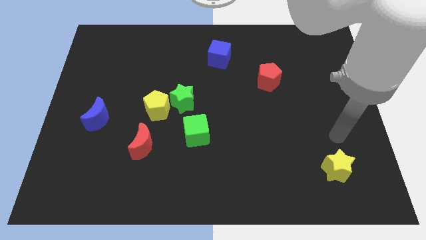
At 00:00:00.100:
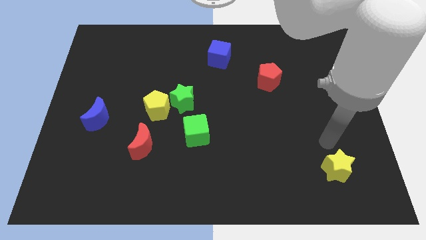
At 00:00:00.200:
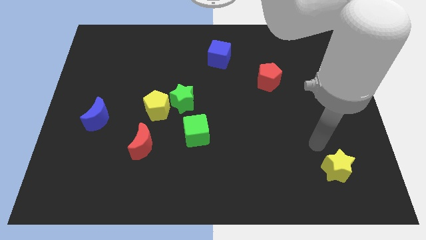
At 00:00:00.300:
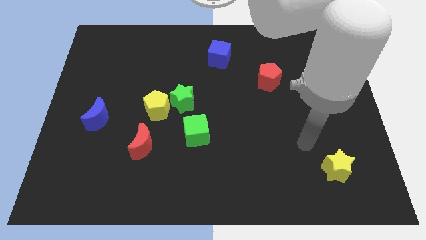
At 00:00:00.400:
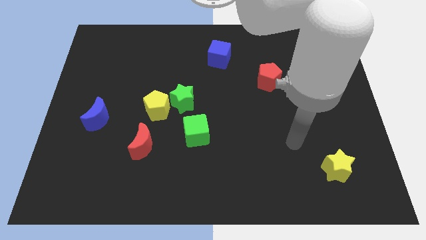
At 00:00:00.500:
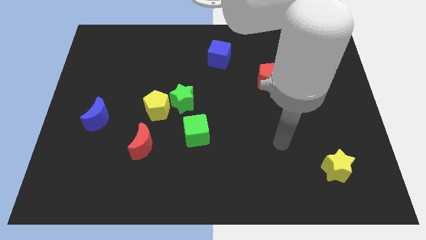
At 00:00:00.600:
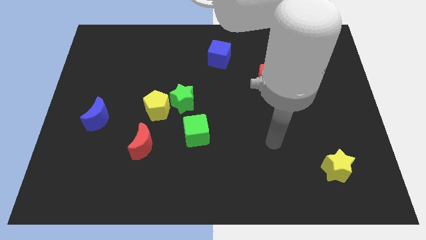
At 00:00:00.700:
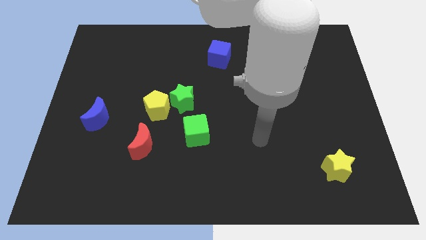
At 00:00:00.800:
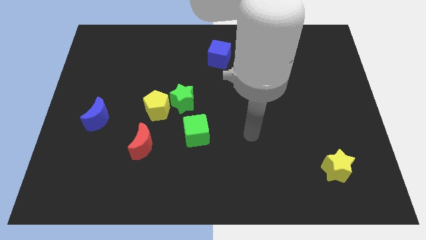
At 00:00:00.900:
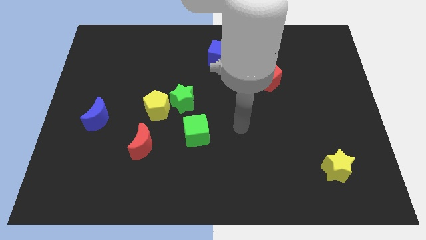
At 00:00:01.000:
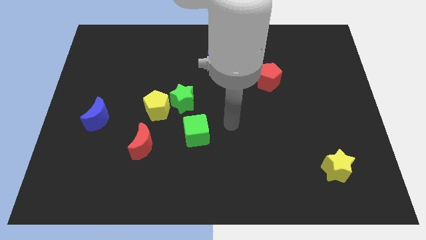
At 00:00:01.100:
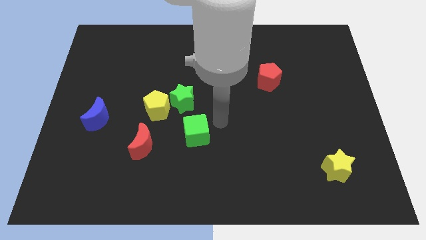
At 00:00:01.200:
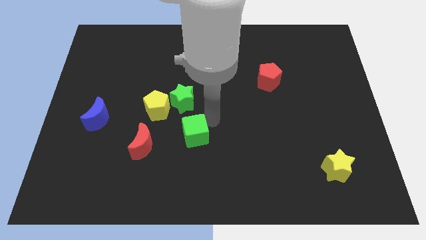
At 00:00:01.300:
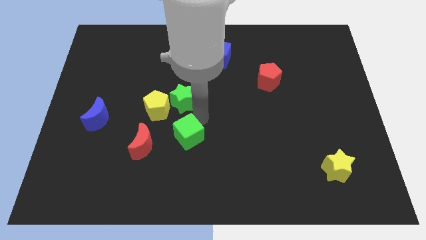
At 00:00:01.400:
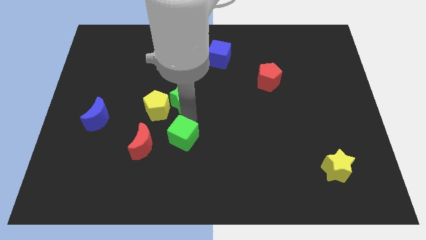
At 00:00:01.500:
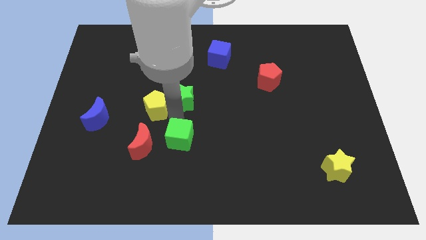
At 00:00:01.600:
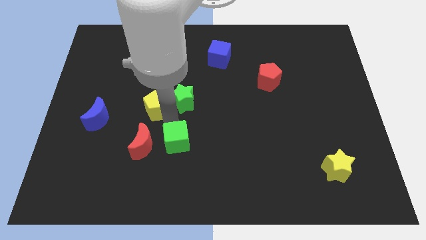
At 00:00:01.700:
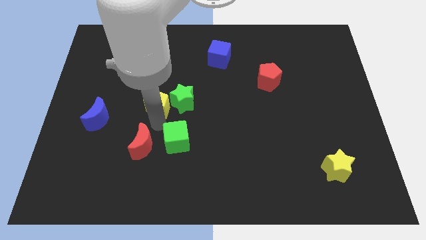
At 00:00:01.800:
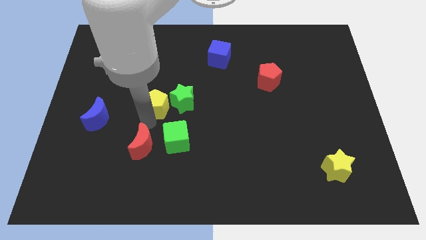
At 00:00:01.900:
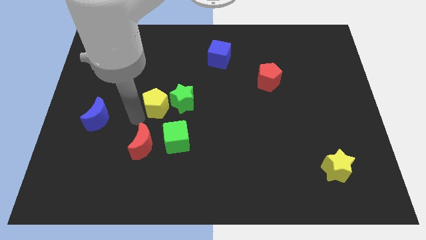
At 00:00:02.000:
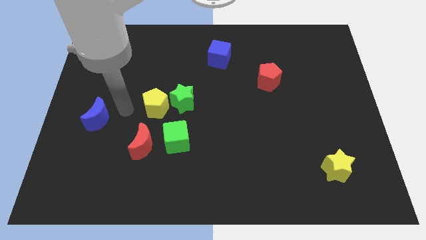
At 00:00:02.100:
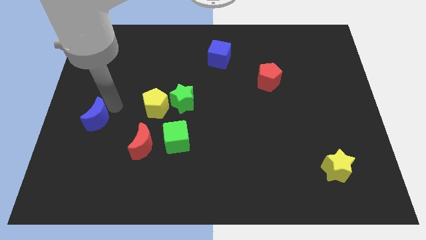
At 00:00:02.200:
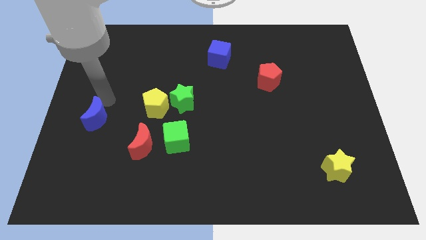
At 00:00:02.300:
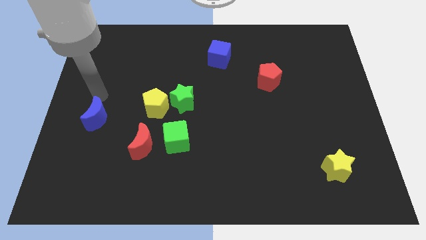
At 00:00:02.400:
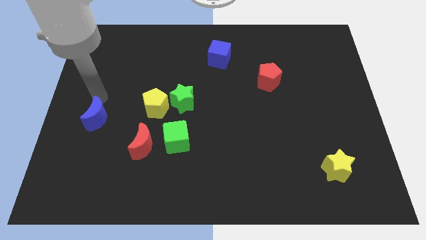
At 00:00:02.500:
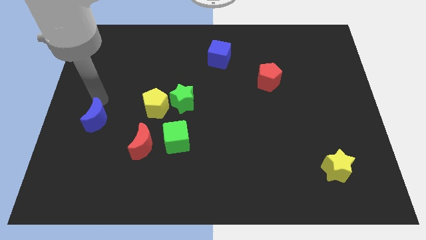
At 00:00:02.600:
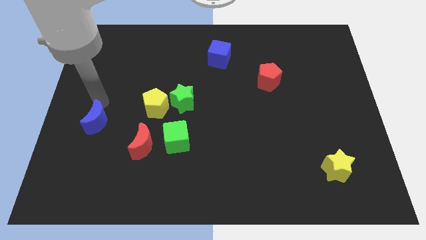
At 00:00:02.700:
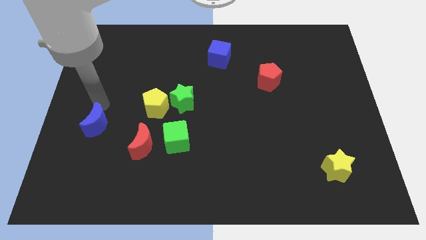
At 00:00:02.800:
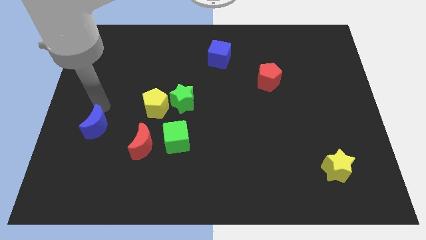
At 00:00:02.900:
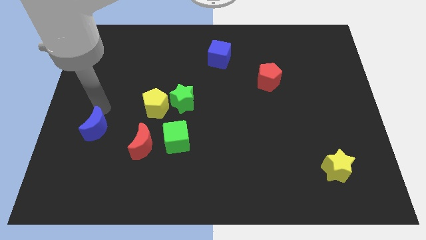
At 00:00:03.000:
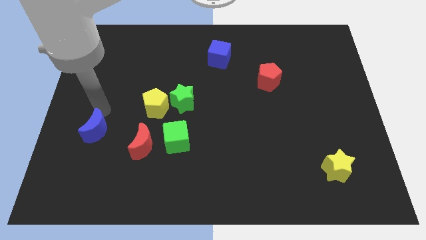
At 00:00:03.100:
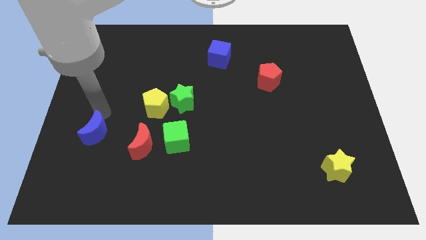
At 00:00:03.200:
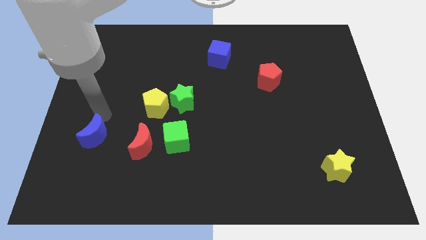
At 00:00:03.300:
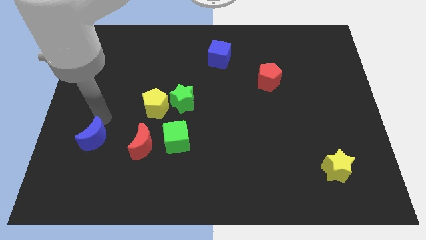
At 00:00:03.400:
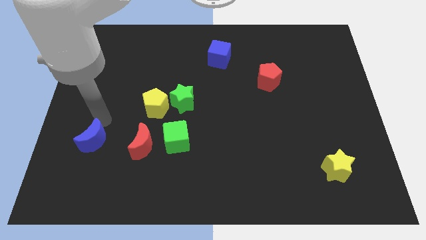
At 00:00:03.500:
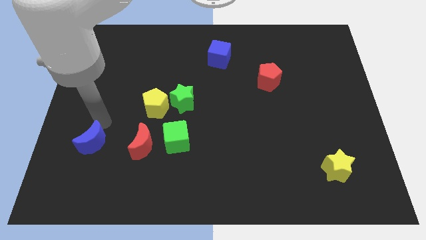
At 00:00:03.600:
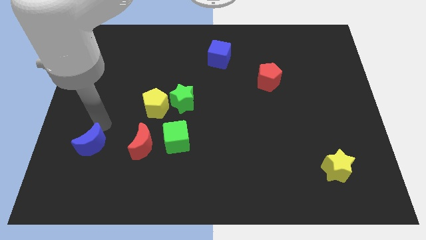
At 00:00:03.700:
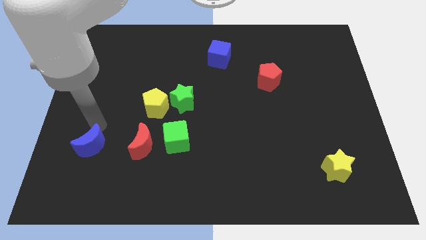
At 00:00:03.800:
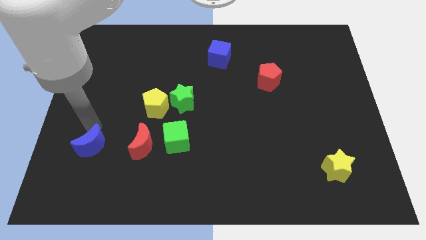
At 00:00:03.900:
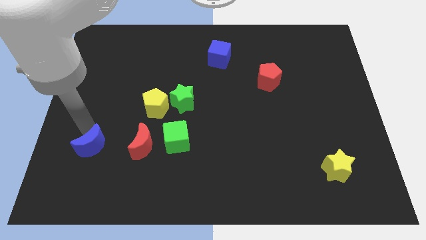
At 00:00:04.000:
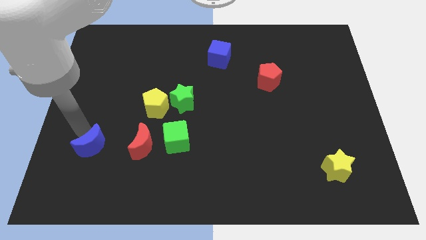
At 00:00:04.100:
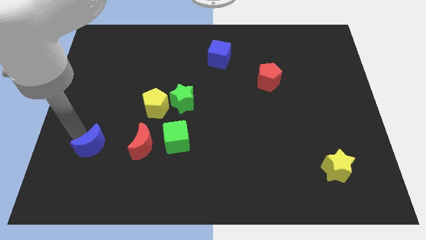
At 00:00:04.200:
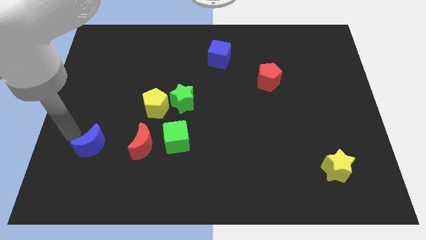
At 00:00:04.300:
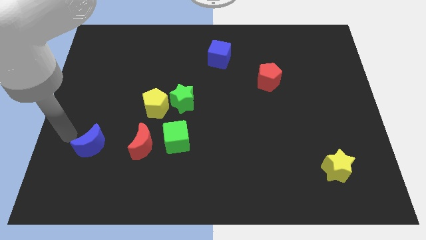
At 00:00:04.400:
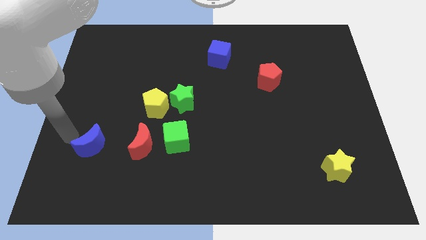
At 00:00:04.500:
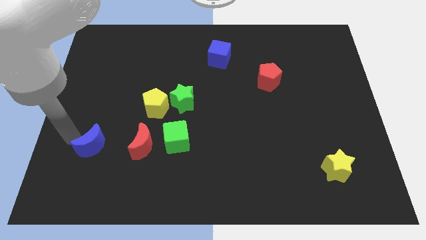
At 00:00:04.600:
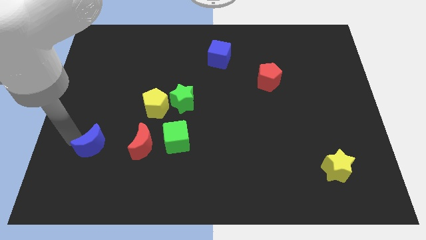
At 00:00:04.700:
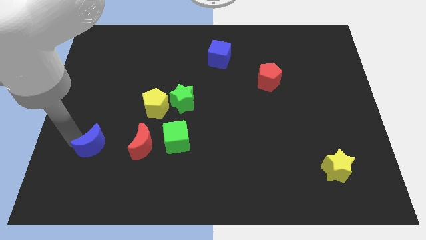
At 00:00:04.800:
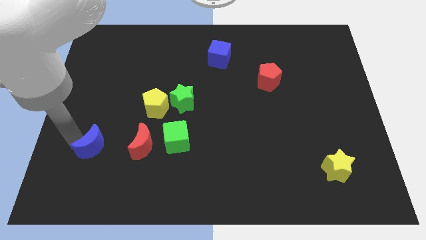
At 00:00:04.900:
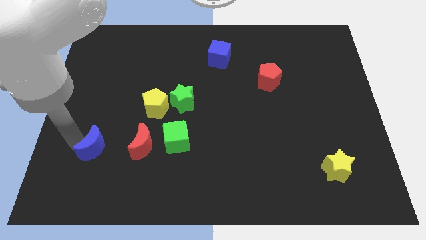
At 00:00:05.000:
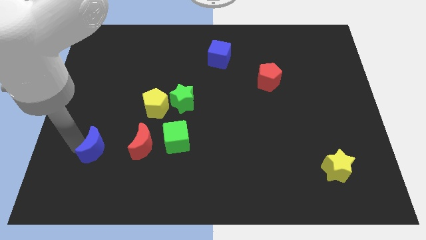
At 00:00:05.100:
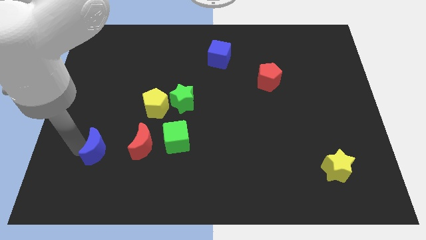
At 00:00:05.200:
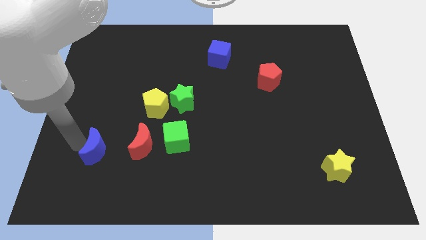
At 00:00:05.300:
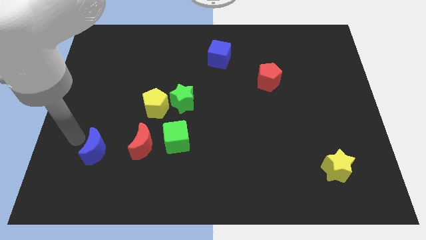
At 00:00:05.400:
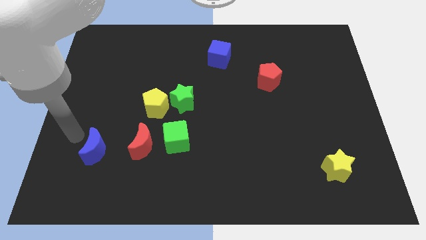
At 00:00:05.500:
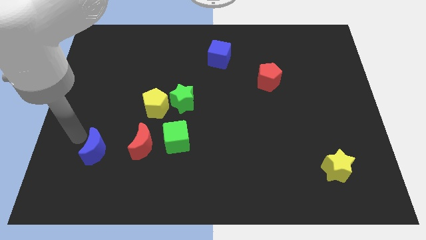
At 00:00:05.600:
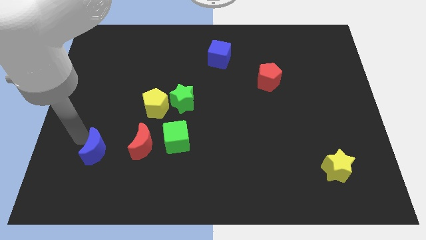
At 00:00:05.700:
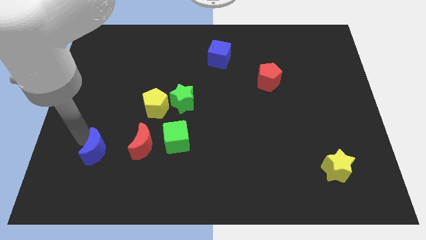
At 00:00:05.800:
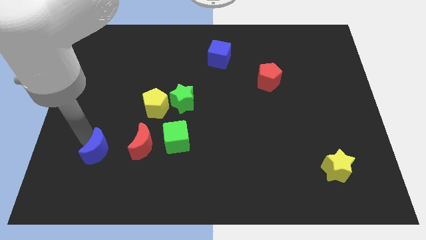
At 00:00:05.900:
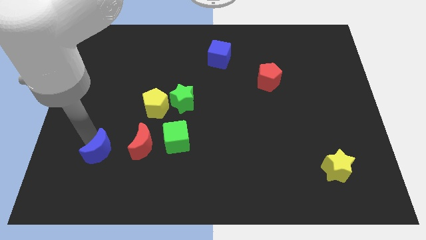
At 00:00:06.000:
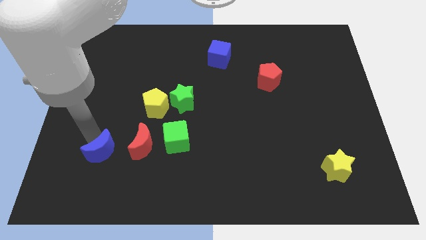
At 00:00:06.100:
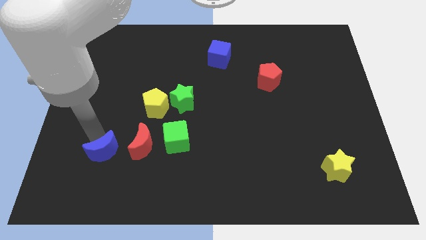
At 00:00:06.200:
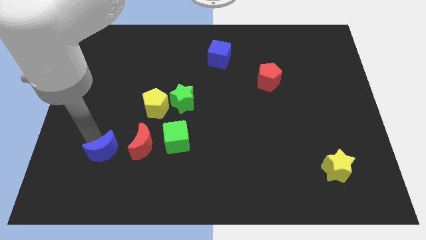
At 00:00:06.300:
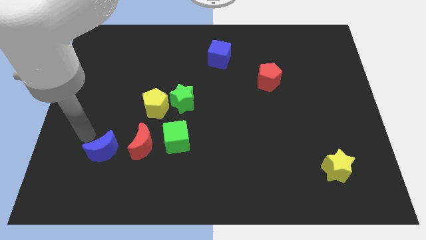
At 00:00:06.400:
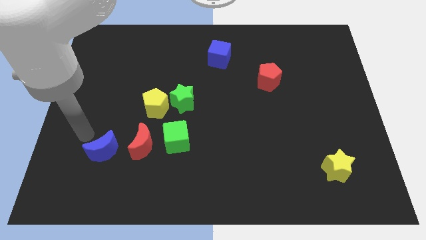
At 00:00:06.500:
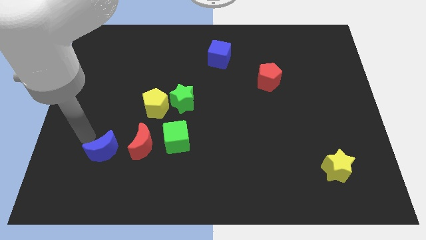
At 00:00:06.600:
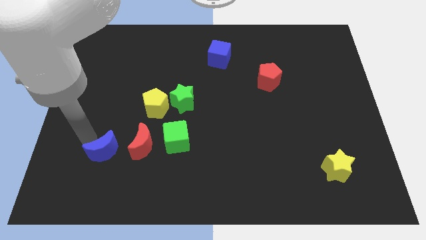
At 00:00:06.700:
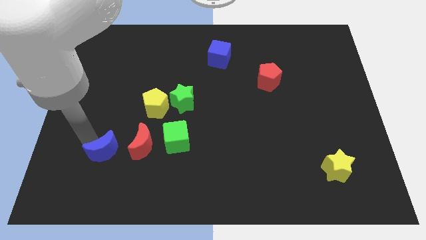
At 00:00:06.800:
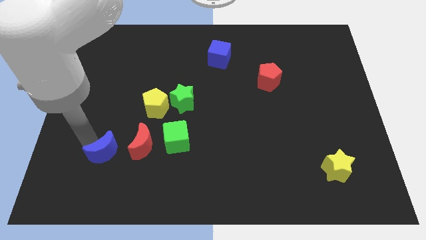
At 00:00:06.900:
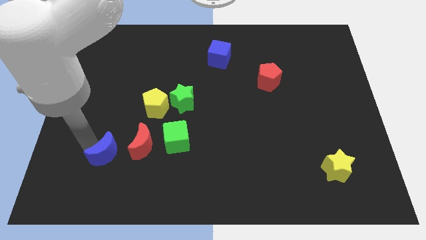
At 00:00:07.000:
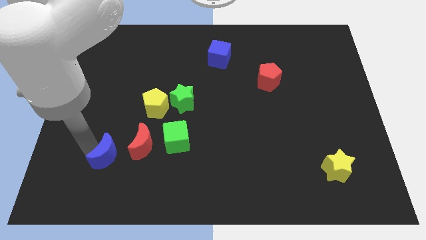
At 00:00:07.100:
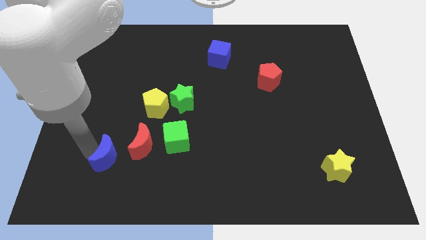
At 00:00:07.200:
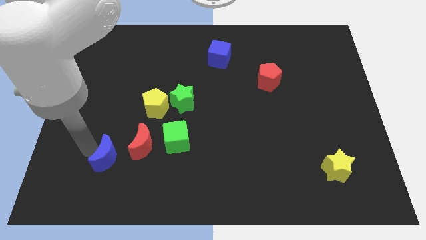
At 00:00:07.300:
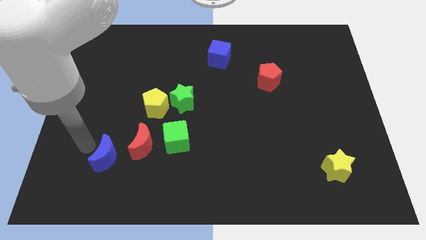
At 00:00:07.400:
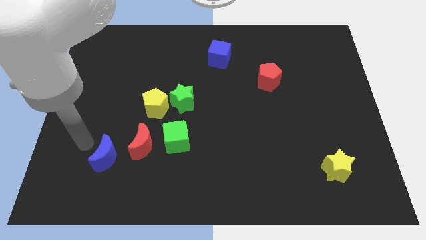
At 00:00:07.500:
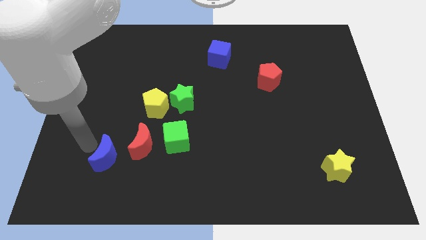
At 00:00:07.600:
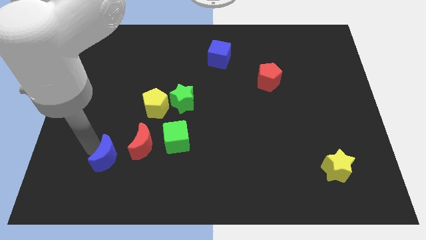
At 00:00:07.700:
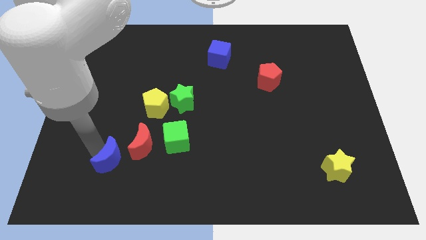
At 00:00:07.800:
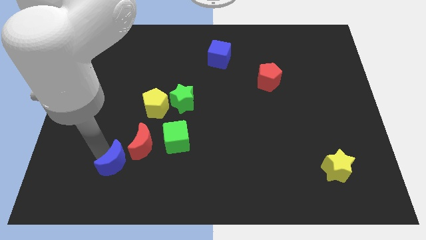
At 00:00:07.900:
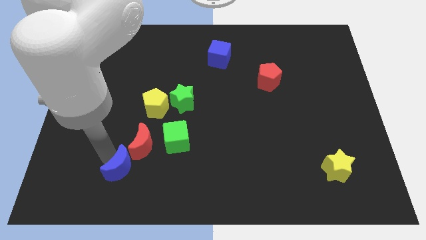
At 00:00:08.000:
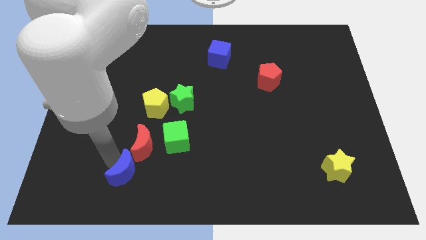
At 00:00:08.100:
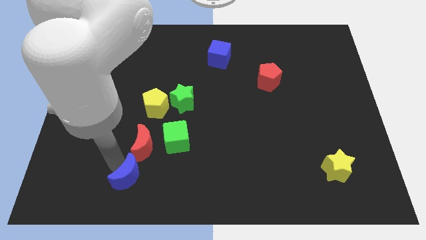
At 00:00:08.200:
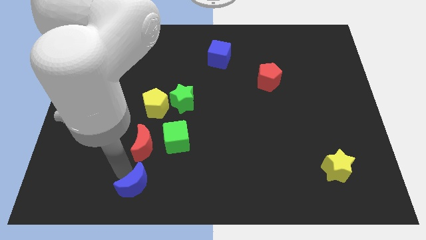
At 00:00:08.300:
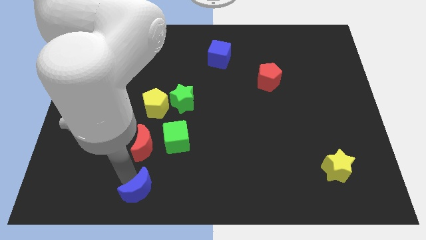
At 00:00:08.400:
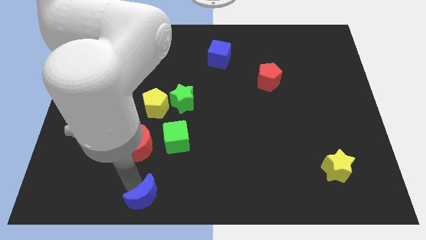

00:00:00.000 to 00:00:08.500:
put the blue moon to the bottom
